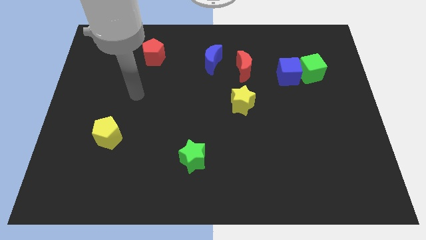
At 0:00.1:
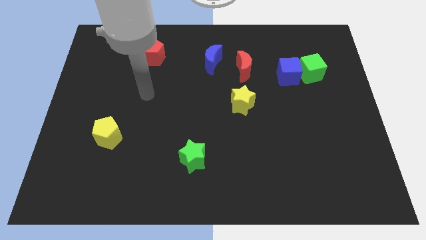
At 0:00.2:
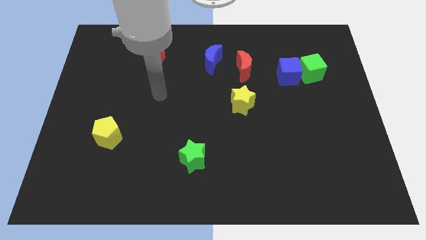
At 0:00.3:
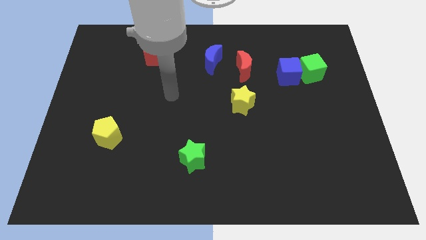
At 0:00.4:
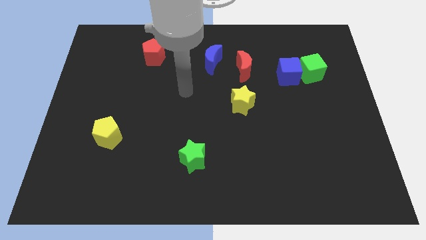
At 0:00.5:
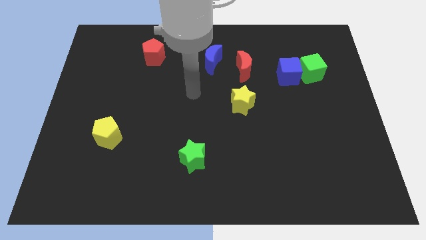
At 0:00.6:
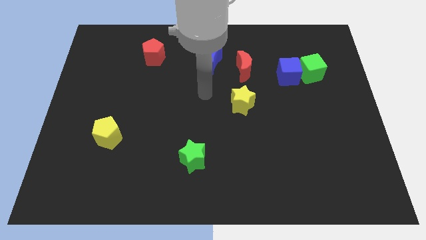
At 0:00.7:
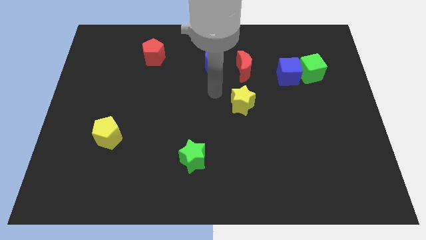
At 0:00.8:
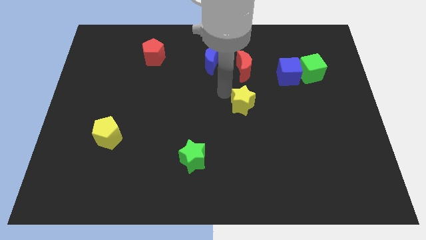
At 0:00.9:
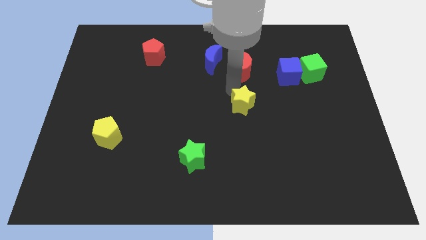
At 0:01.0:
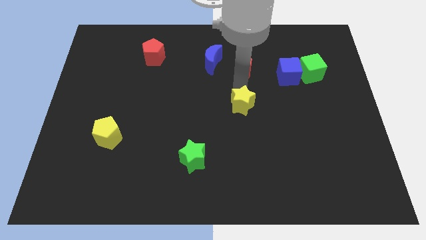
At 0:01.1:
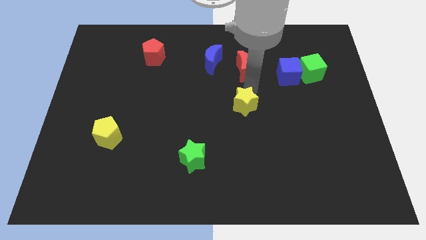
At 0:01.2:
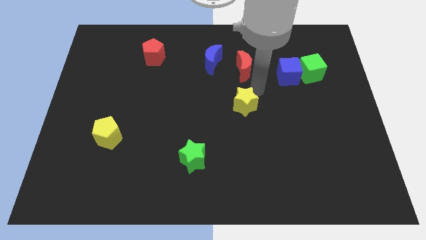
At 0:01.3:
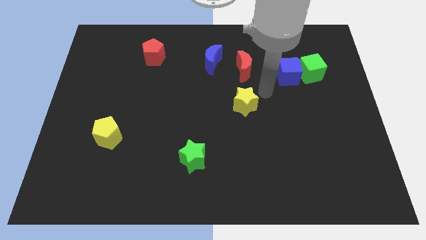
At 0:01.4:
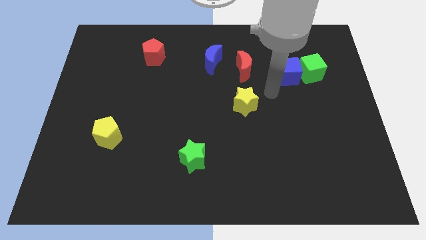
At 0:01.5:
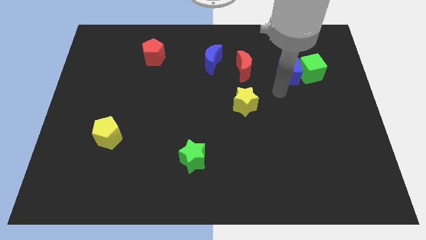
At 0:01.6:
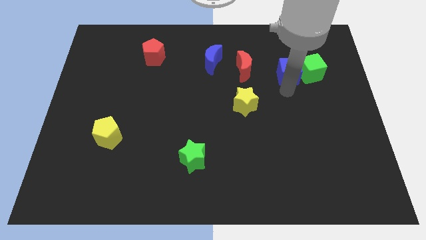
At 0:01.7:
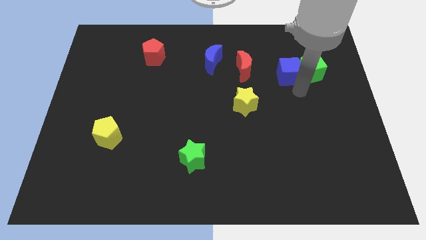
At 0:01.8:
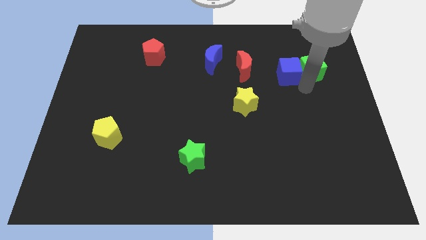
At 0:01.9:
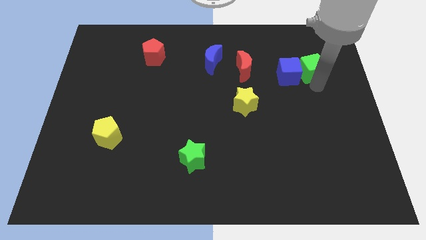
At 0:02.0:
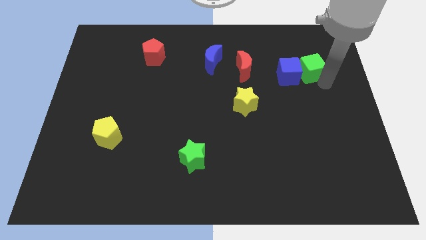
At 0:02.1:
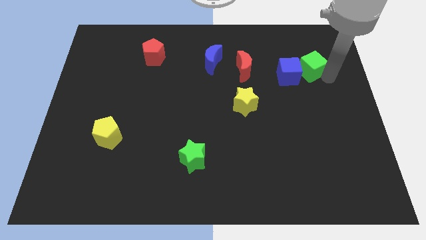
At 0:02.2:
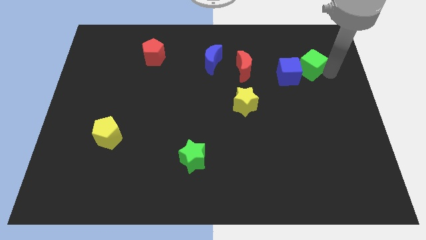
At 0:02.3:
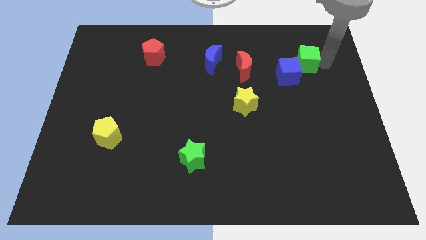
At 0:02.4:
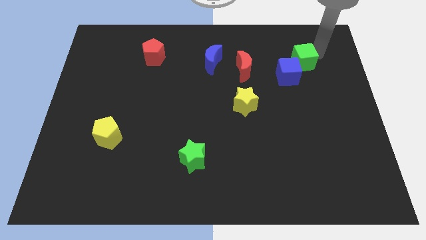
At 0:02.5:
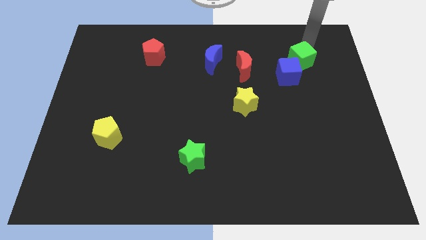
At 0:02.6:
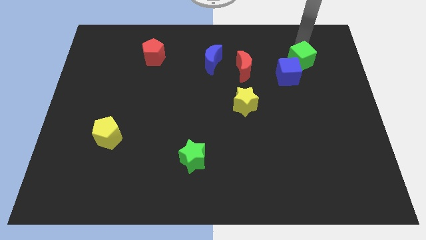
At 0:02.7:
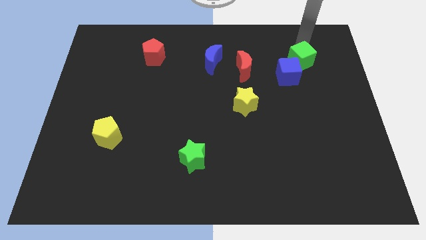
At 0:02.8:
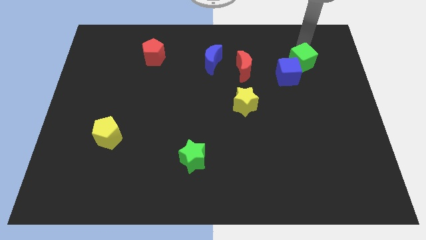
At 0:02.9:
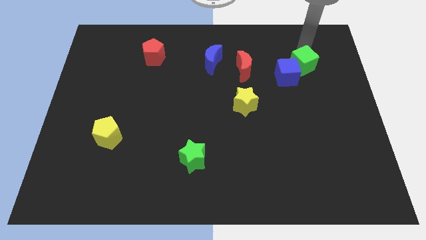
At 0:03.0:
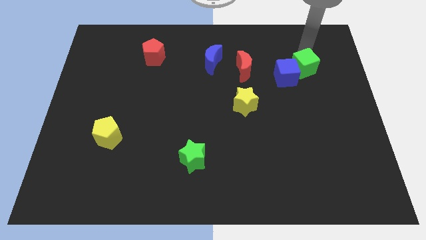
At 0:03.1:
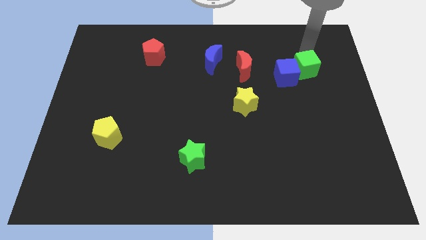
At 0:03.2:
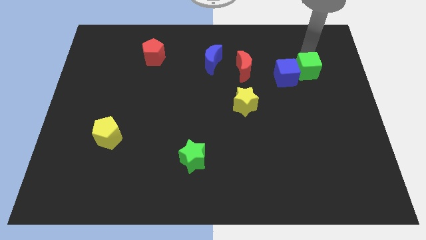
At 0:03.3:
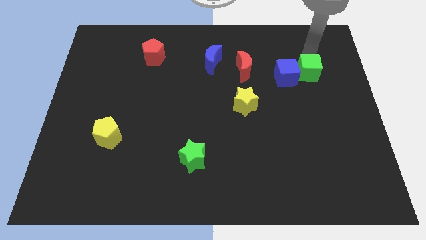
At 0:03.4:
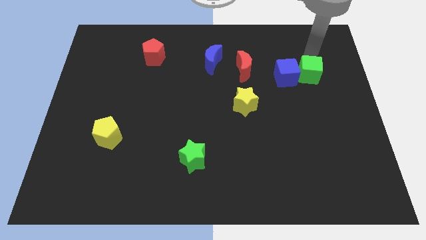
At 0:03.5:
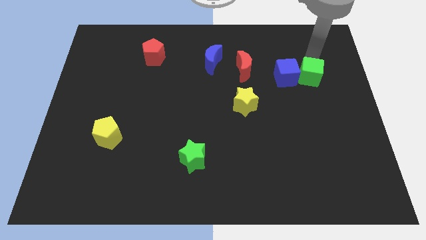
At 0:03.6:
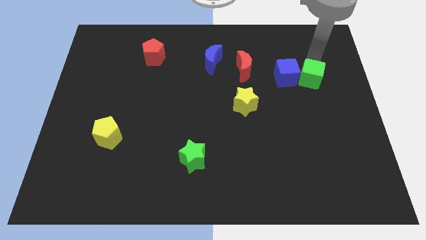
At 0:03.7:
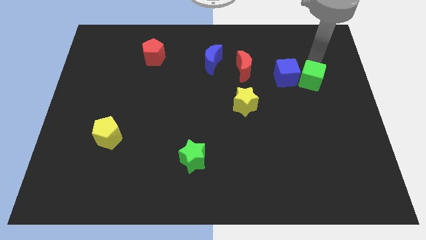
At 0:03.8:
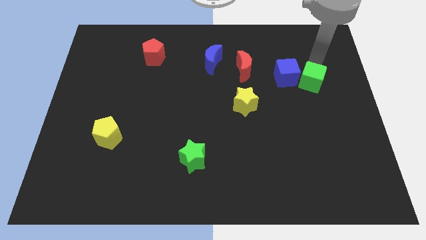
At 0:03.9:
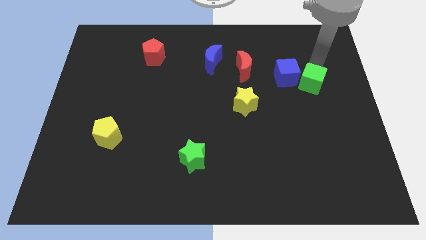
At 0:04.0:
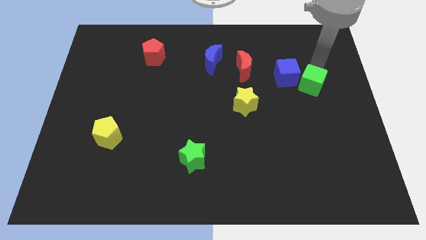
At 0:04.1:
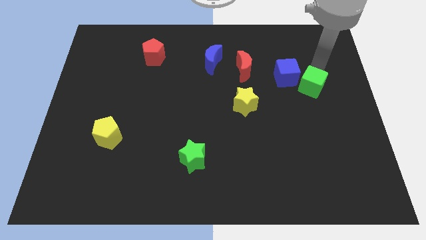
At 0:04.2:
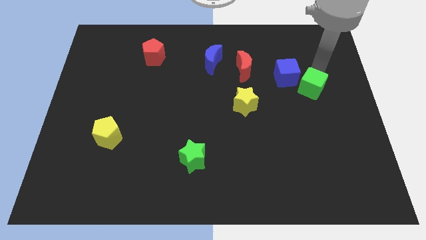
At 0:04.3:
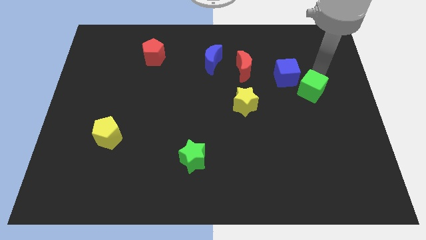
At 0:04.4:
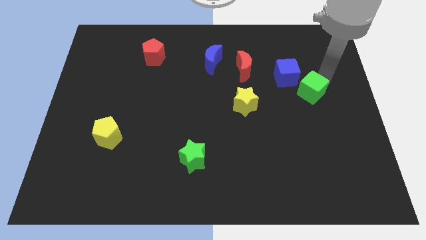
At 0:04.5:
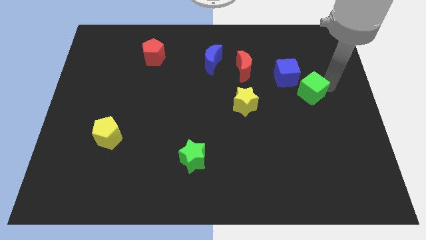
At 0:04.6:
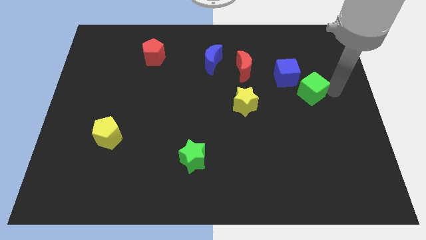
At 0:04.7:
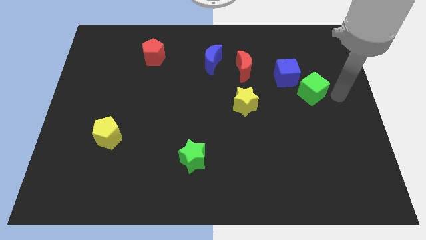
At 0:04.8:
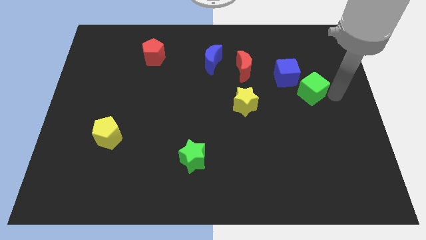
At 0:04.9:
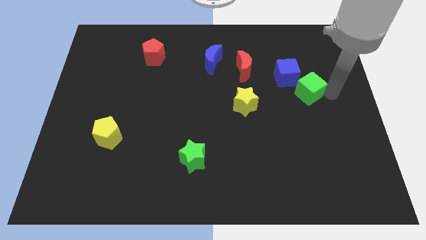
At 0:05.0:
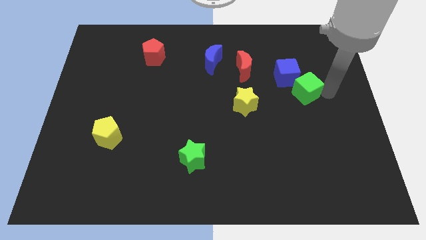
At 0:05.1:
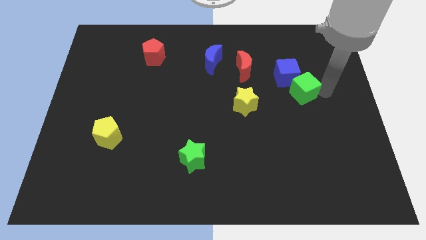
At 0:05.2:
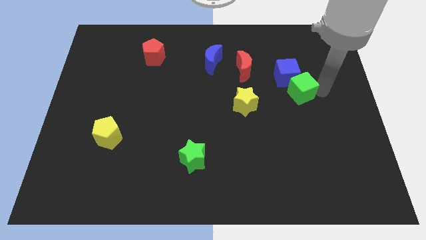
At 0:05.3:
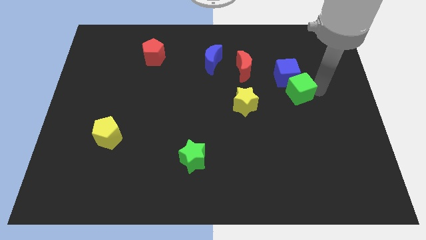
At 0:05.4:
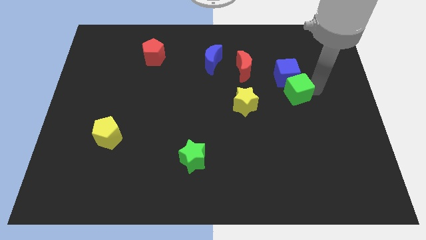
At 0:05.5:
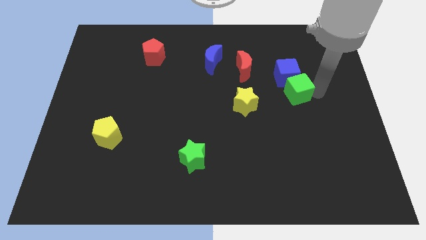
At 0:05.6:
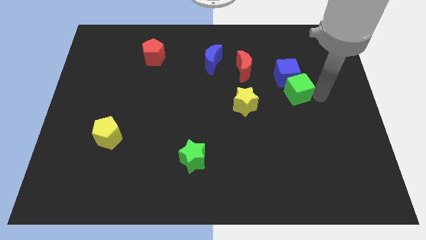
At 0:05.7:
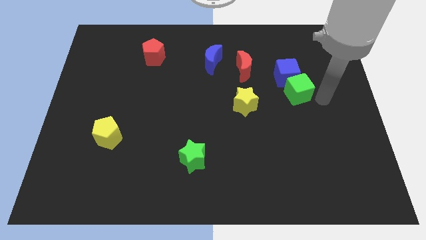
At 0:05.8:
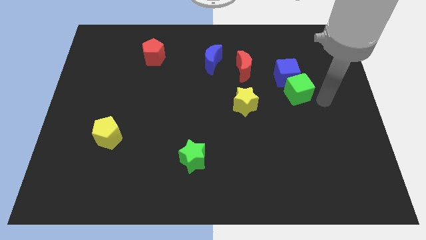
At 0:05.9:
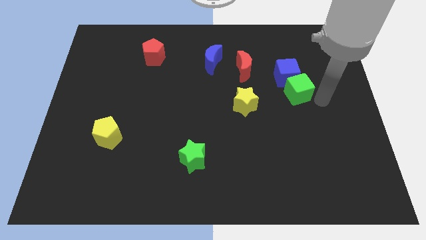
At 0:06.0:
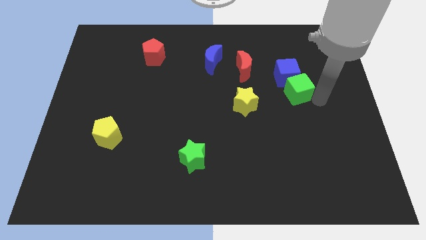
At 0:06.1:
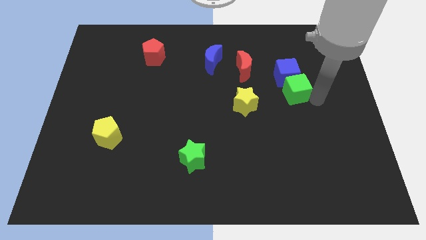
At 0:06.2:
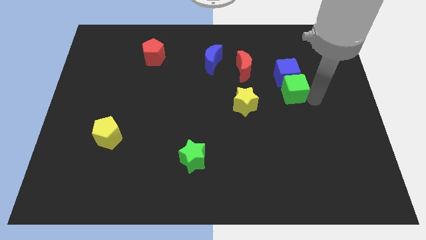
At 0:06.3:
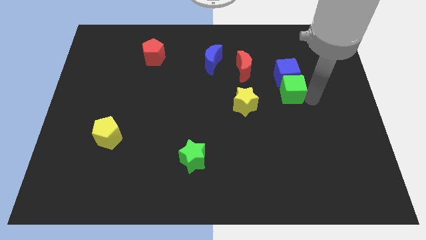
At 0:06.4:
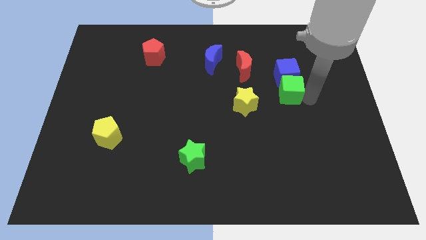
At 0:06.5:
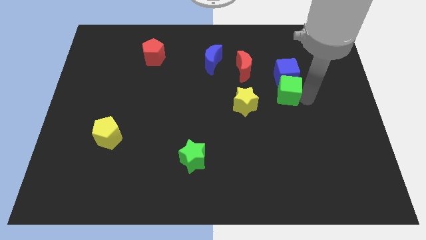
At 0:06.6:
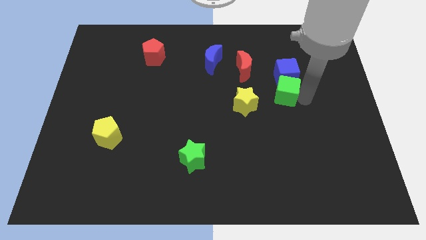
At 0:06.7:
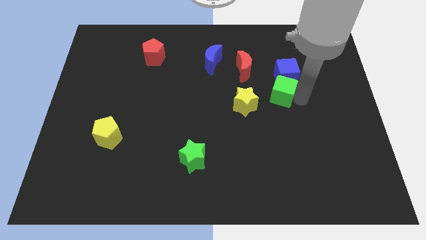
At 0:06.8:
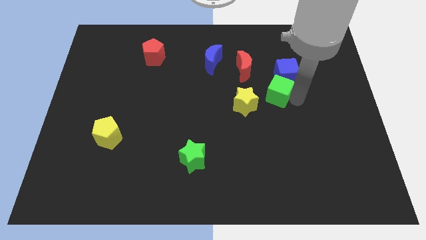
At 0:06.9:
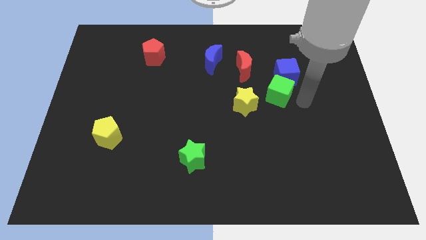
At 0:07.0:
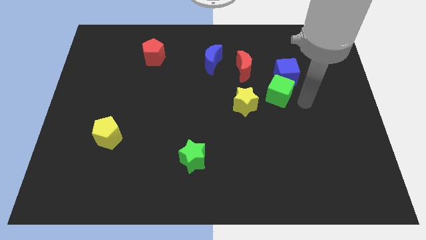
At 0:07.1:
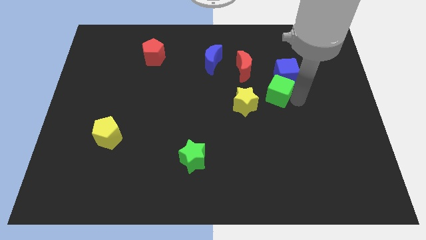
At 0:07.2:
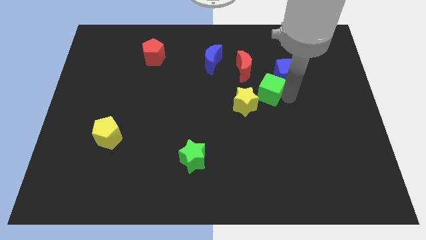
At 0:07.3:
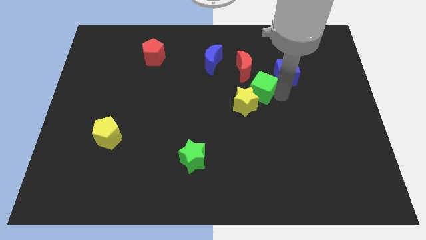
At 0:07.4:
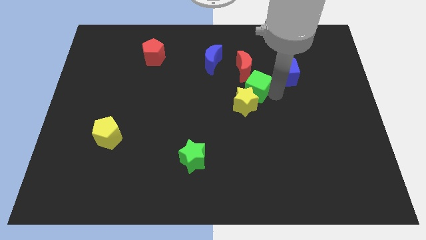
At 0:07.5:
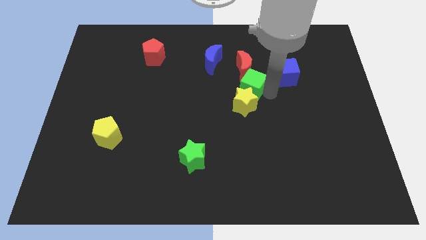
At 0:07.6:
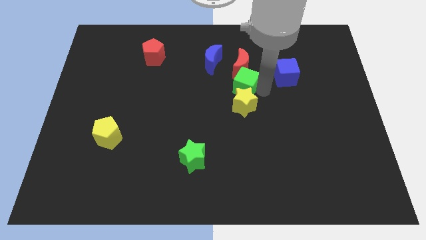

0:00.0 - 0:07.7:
slide the green cube to the bottom left side of the red moon
